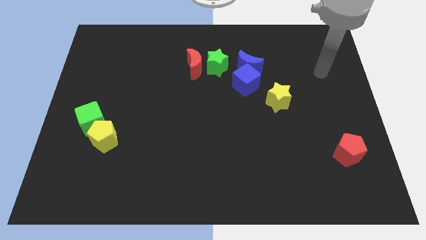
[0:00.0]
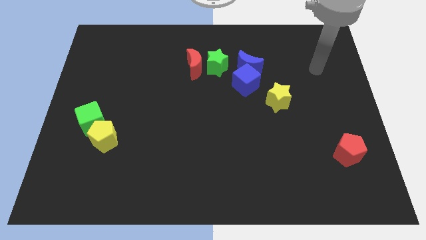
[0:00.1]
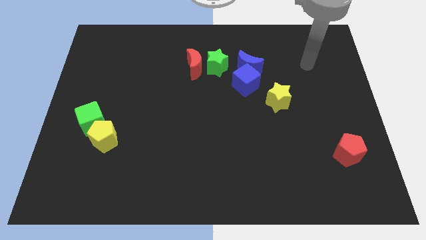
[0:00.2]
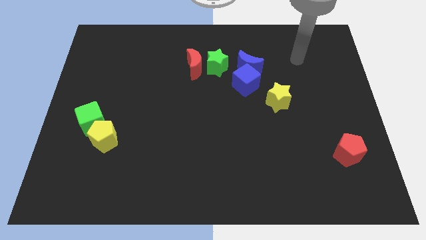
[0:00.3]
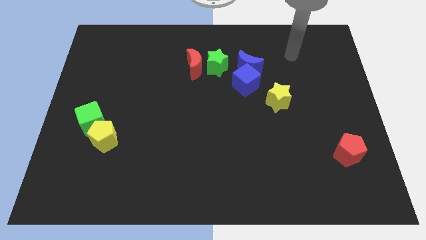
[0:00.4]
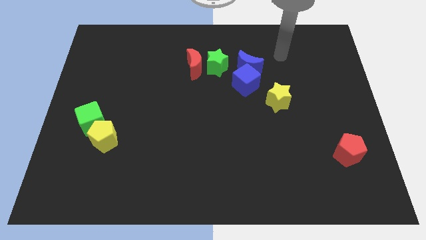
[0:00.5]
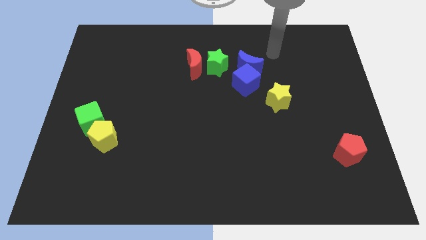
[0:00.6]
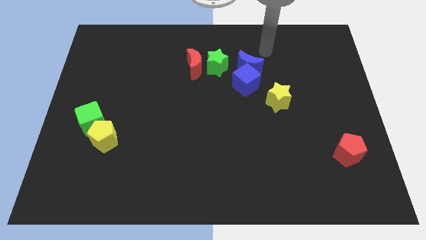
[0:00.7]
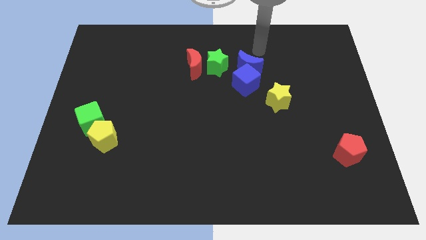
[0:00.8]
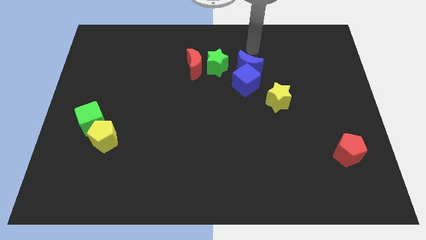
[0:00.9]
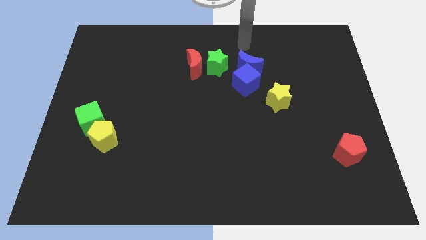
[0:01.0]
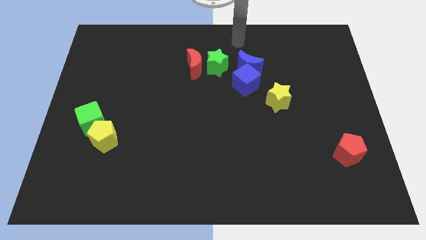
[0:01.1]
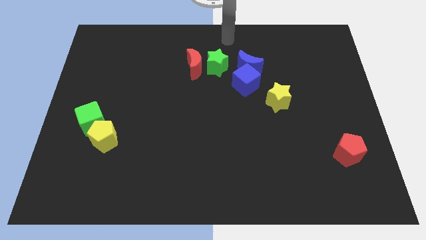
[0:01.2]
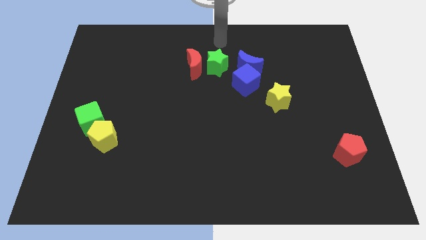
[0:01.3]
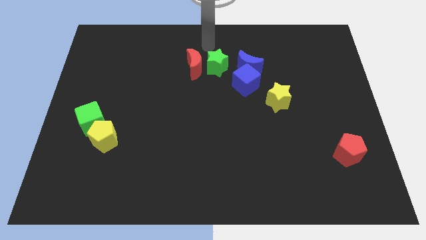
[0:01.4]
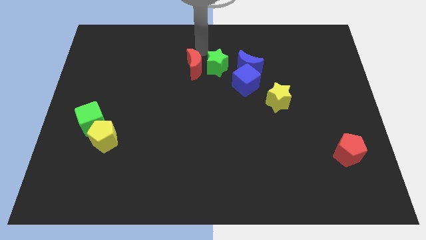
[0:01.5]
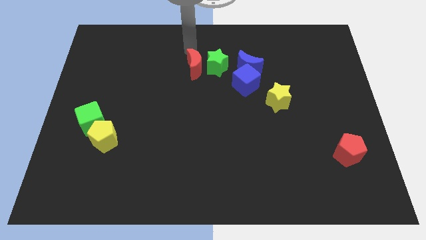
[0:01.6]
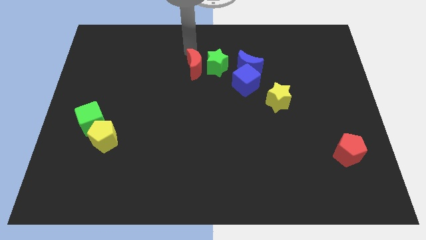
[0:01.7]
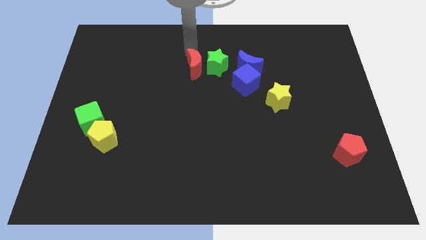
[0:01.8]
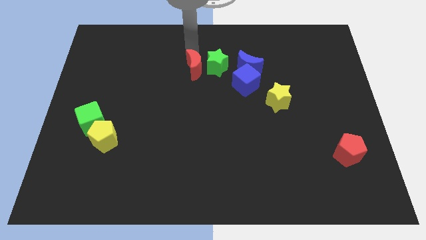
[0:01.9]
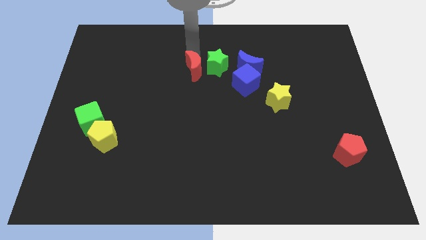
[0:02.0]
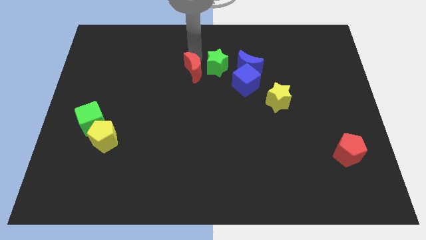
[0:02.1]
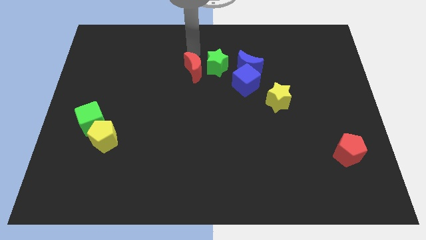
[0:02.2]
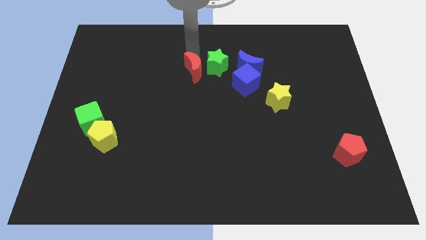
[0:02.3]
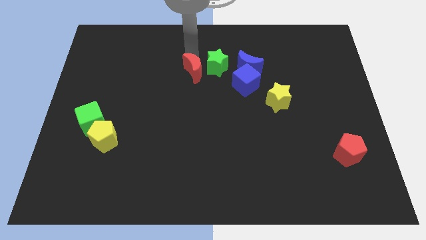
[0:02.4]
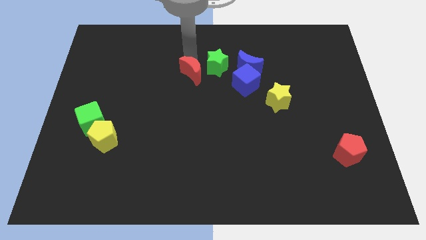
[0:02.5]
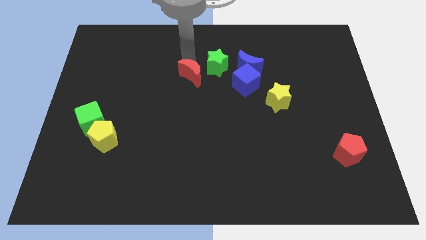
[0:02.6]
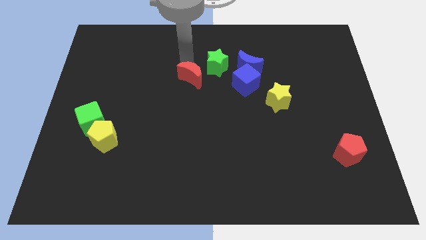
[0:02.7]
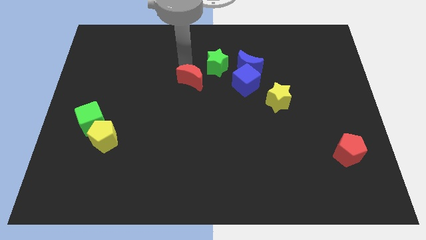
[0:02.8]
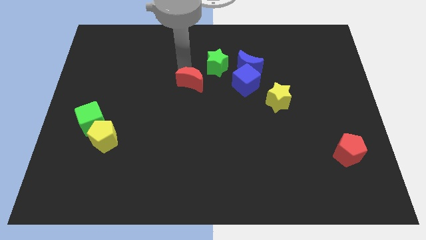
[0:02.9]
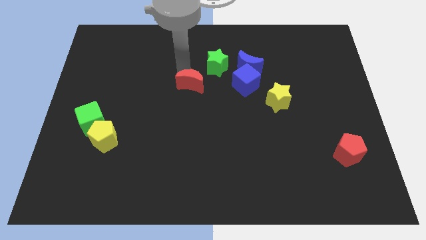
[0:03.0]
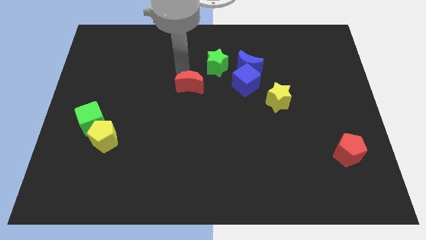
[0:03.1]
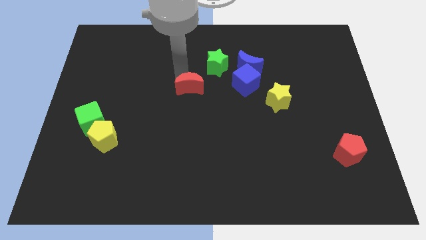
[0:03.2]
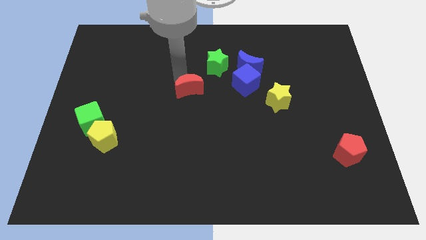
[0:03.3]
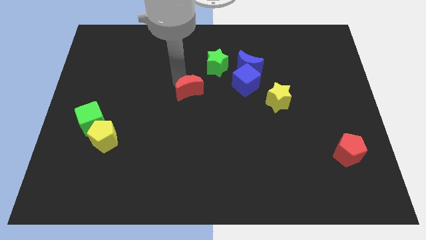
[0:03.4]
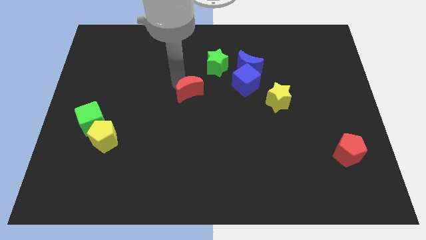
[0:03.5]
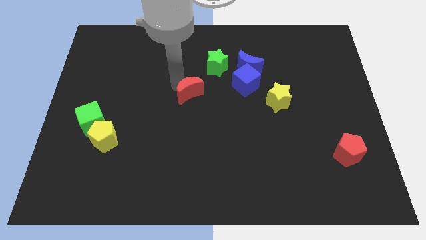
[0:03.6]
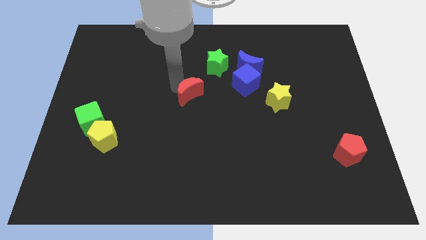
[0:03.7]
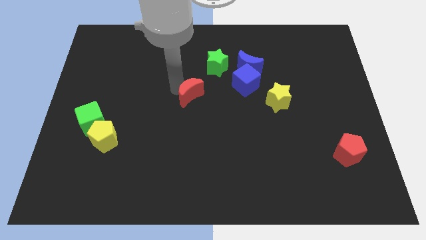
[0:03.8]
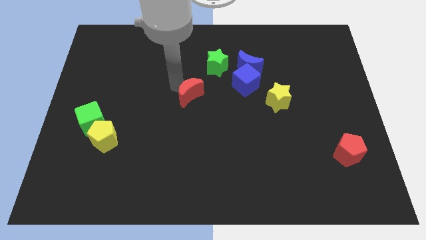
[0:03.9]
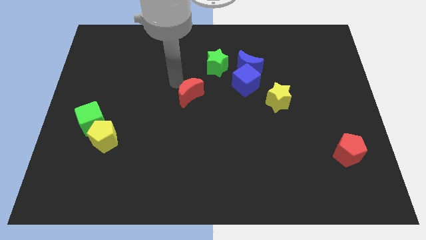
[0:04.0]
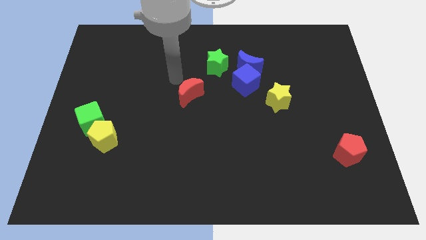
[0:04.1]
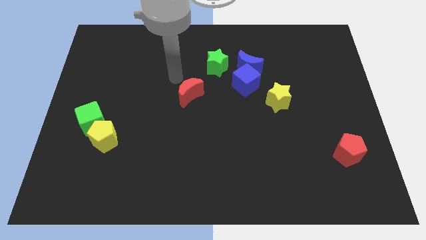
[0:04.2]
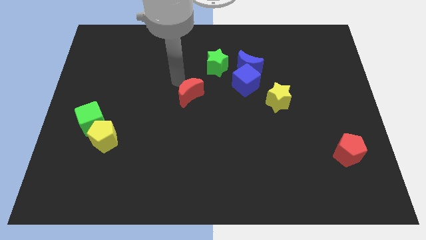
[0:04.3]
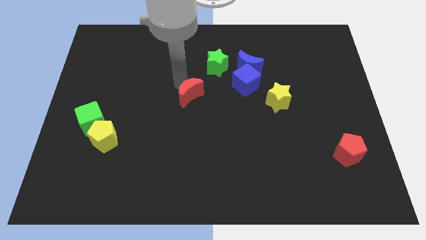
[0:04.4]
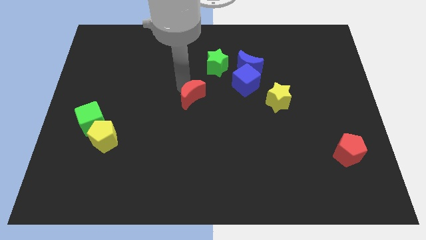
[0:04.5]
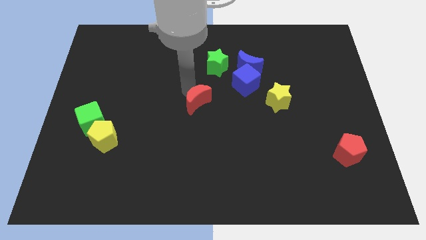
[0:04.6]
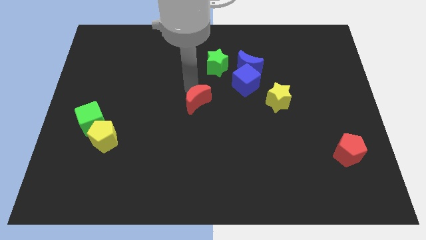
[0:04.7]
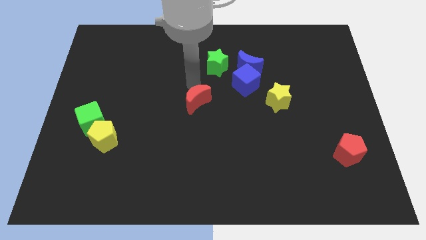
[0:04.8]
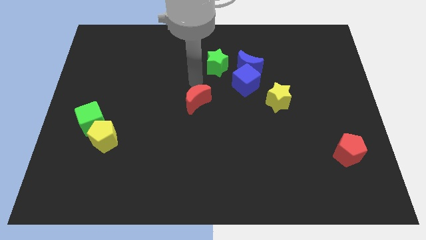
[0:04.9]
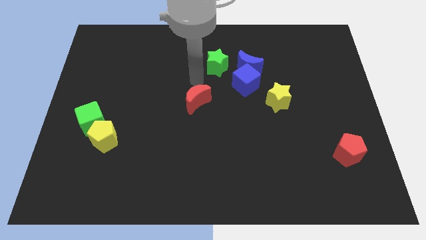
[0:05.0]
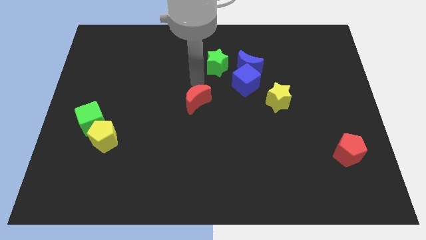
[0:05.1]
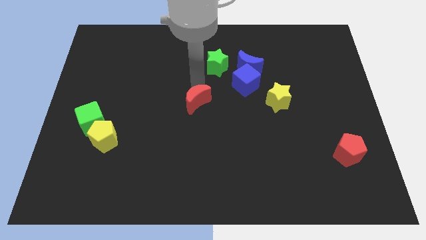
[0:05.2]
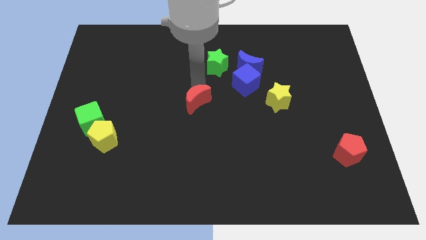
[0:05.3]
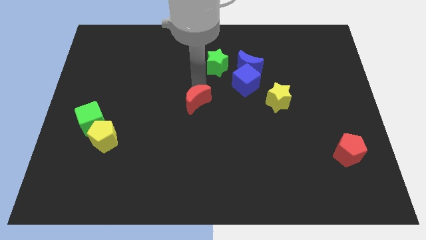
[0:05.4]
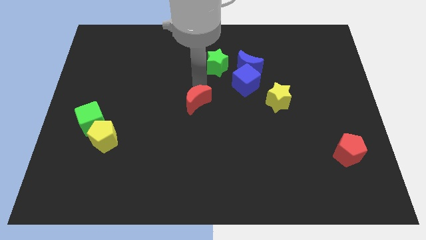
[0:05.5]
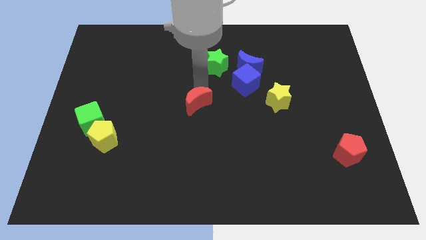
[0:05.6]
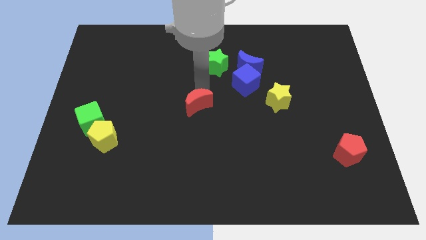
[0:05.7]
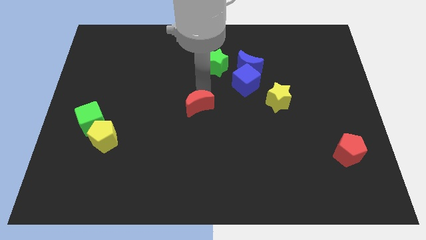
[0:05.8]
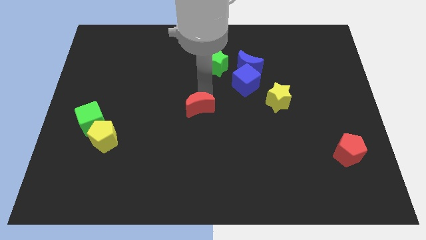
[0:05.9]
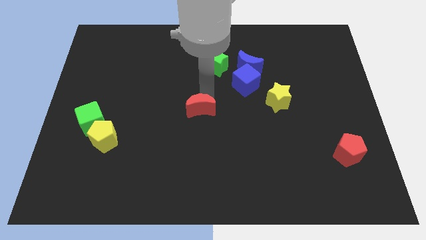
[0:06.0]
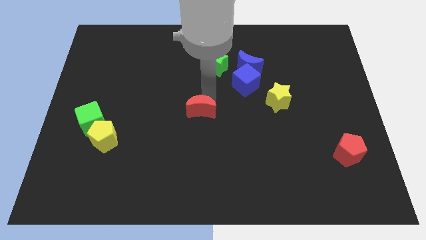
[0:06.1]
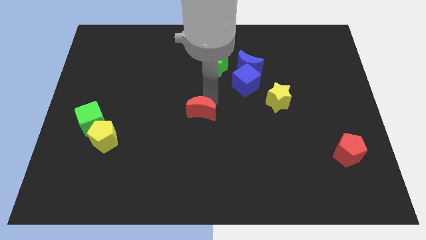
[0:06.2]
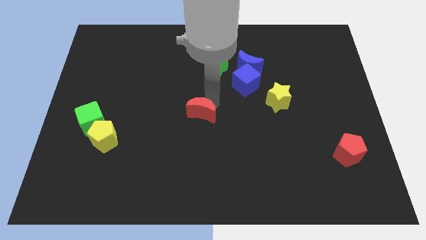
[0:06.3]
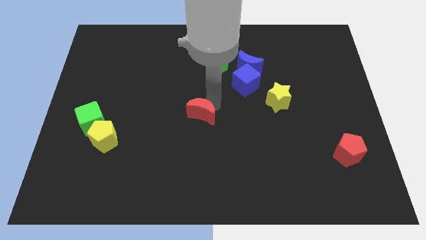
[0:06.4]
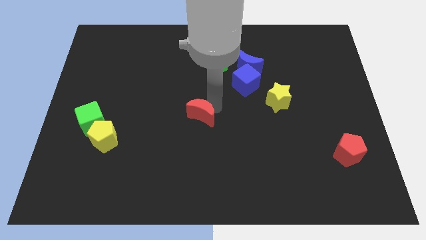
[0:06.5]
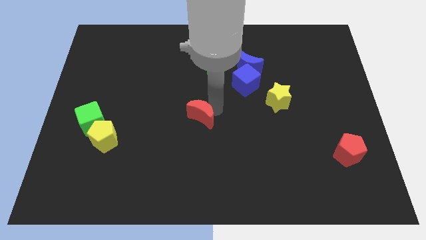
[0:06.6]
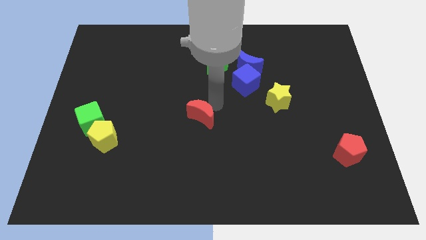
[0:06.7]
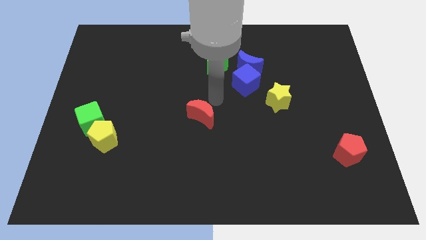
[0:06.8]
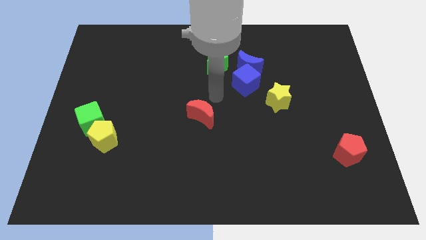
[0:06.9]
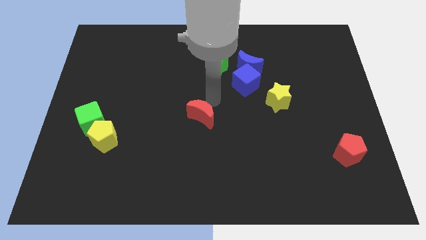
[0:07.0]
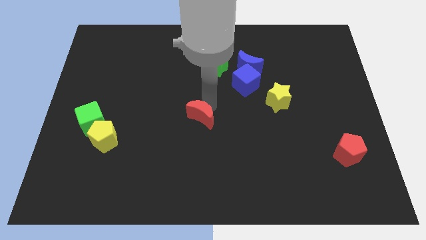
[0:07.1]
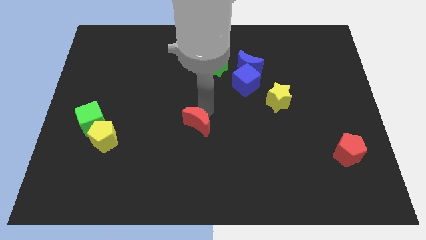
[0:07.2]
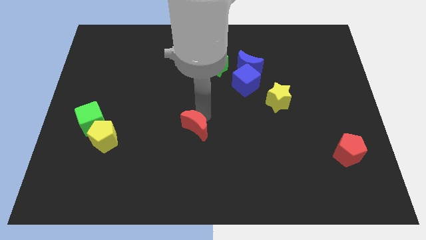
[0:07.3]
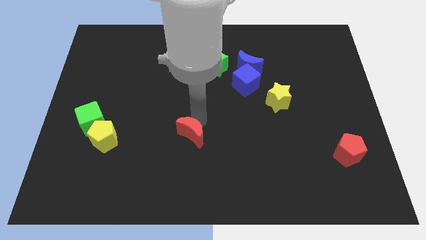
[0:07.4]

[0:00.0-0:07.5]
slide the red moon down

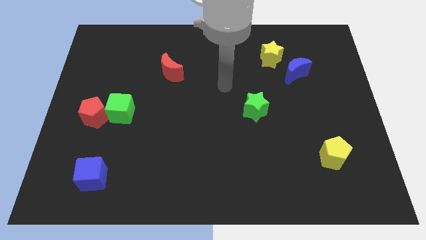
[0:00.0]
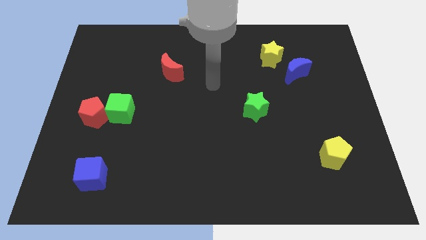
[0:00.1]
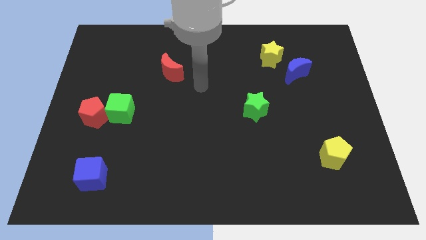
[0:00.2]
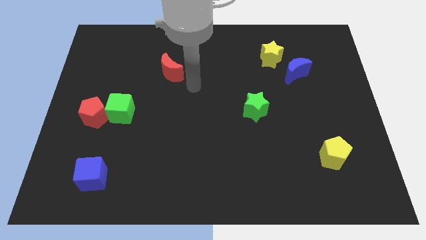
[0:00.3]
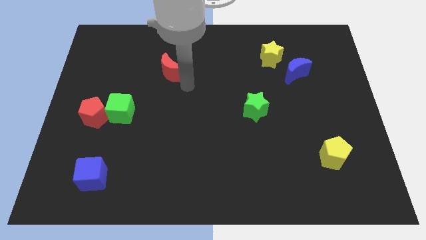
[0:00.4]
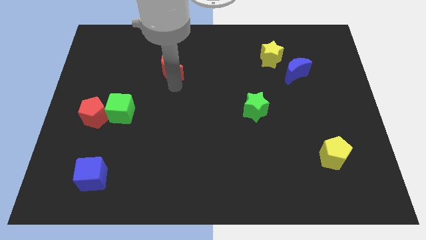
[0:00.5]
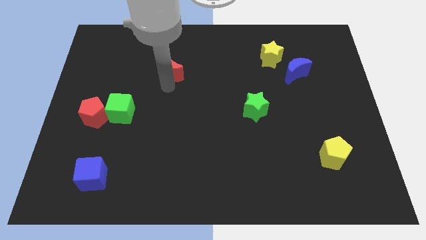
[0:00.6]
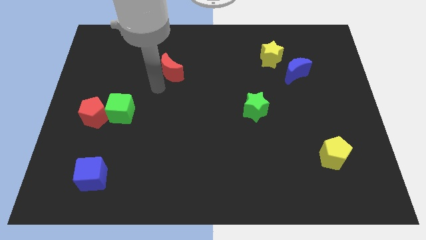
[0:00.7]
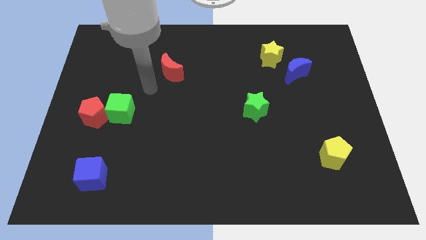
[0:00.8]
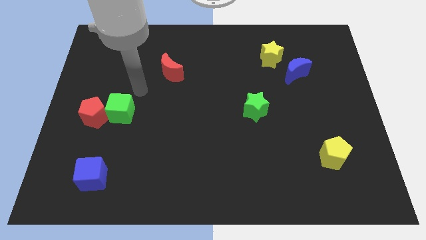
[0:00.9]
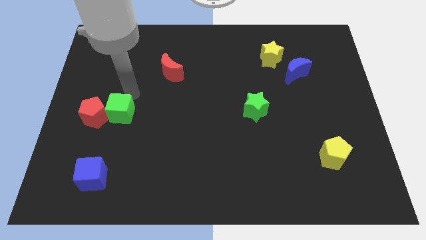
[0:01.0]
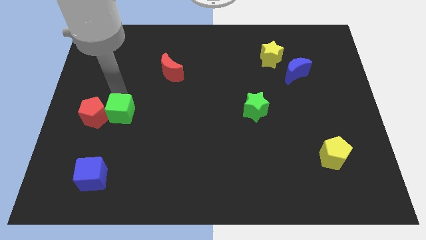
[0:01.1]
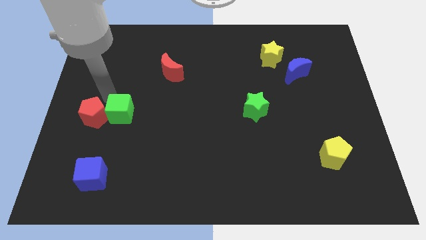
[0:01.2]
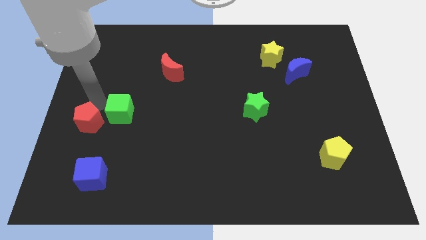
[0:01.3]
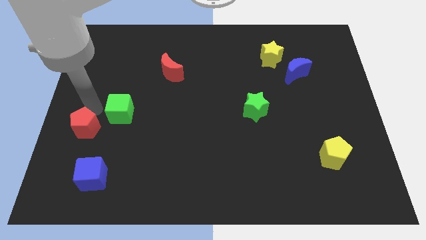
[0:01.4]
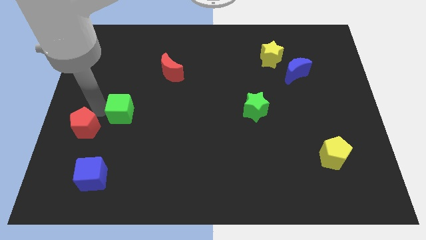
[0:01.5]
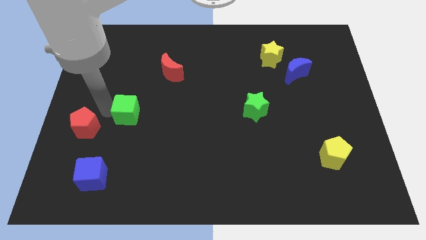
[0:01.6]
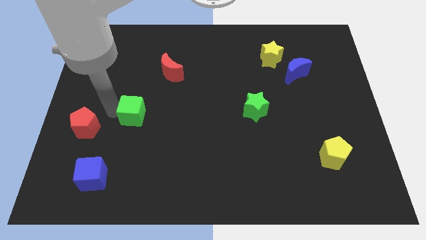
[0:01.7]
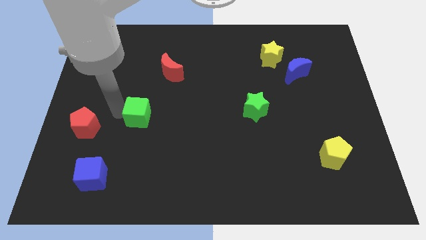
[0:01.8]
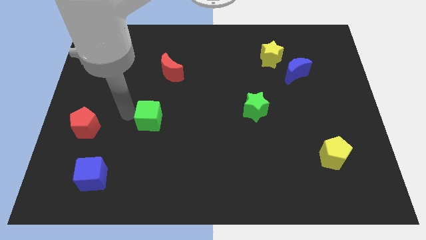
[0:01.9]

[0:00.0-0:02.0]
slightly slide the green cube to the right
